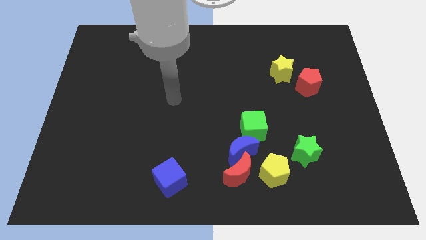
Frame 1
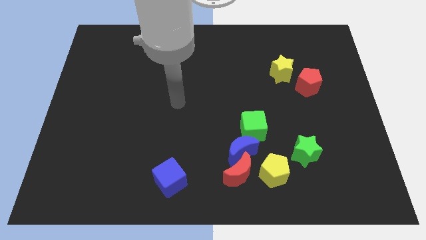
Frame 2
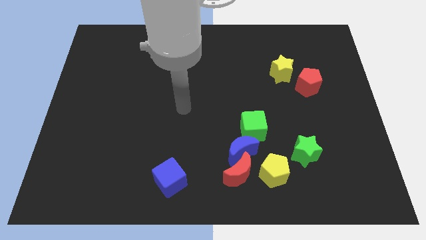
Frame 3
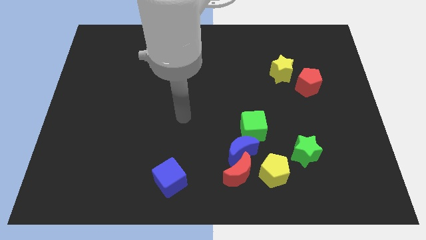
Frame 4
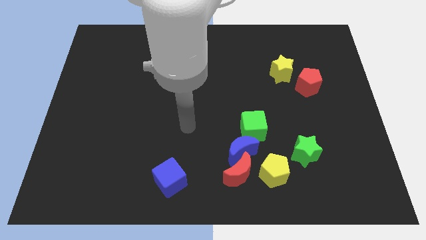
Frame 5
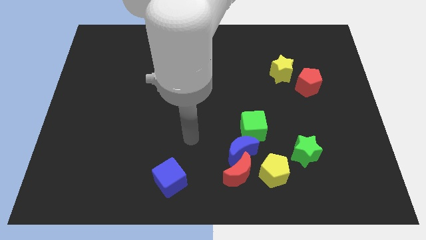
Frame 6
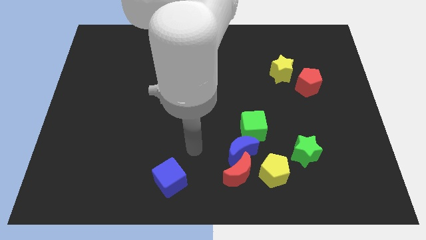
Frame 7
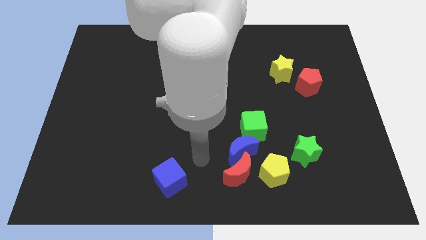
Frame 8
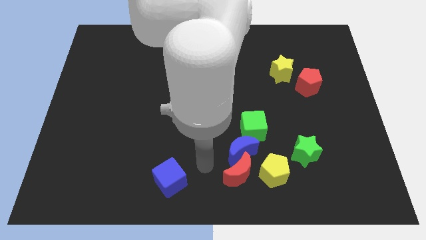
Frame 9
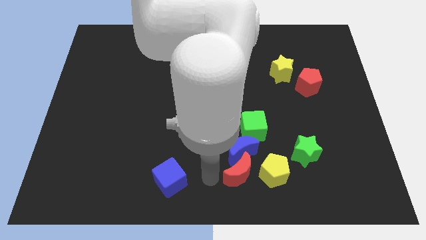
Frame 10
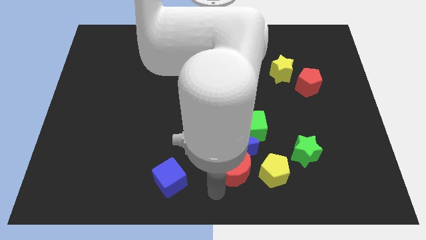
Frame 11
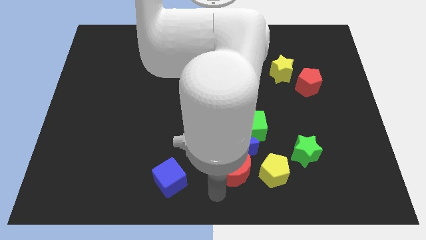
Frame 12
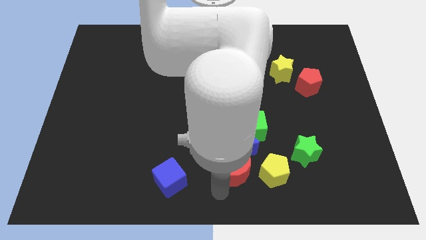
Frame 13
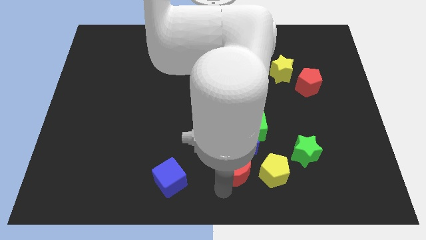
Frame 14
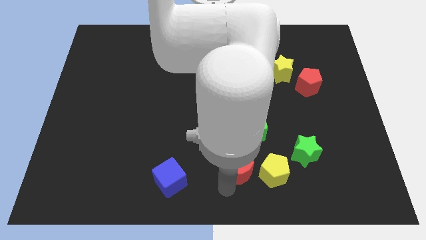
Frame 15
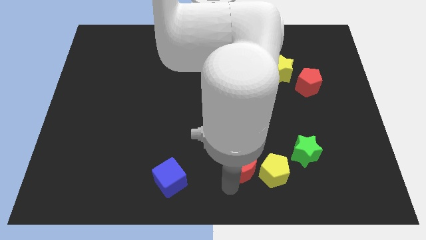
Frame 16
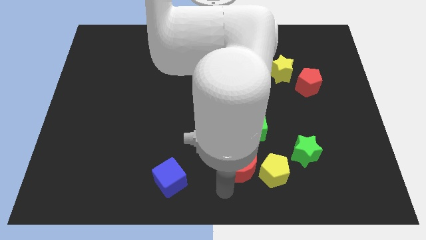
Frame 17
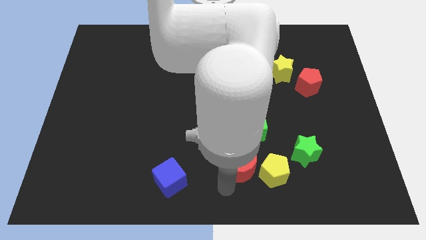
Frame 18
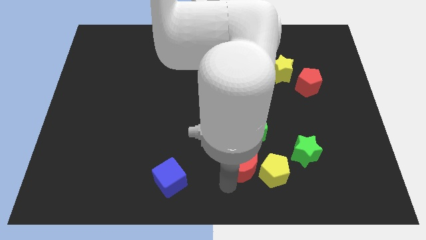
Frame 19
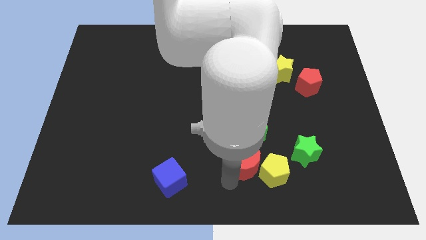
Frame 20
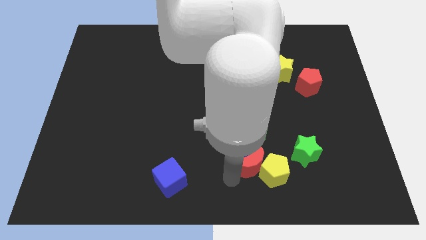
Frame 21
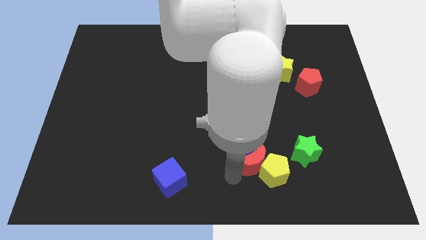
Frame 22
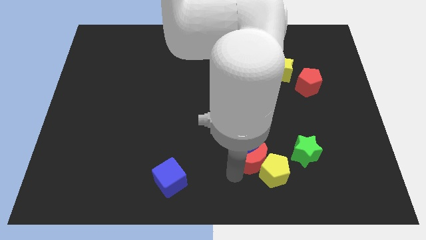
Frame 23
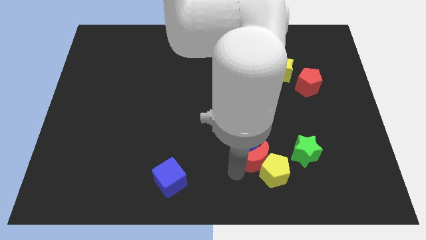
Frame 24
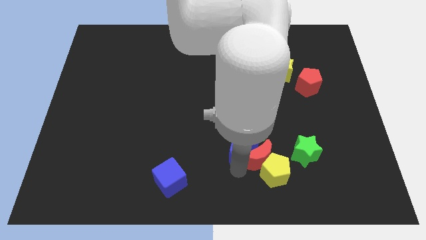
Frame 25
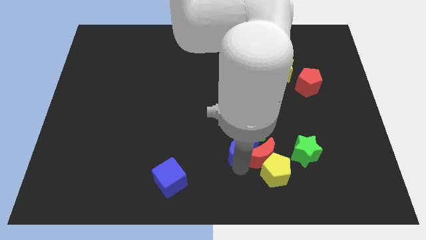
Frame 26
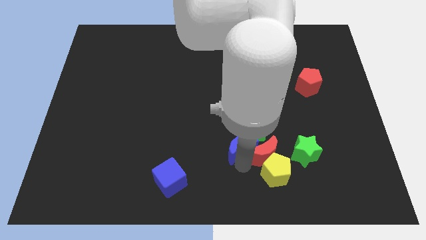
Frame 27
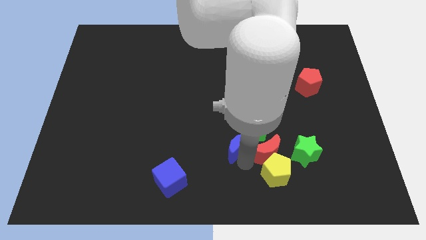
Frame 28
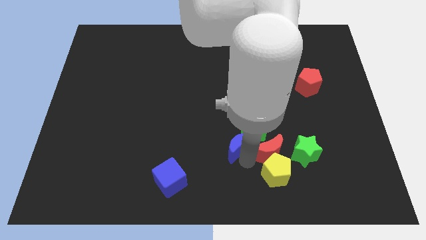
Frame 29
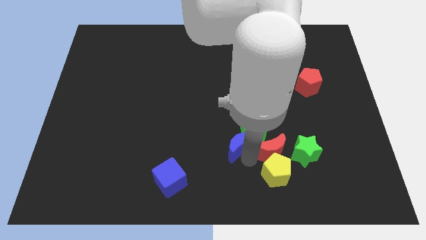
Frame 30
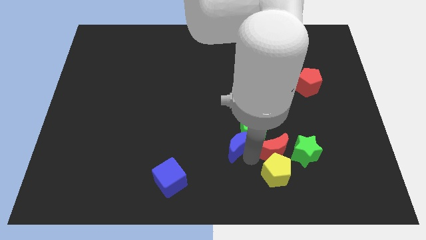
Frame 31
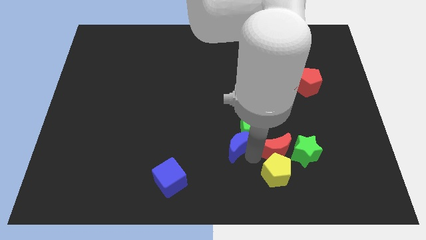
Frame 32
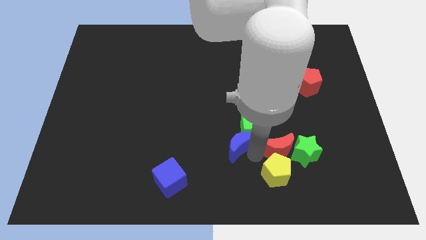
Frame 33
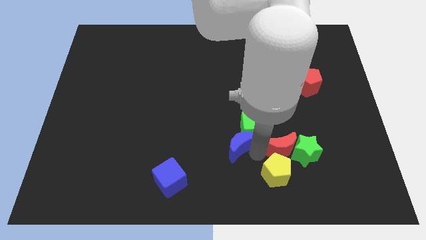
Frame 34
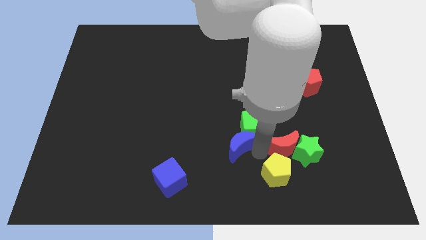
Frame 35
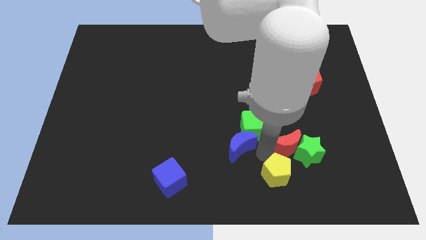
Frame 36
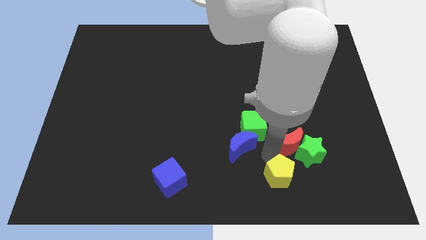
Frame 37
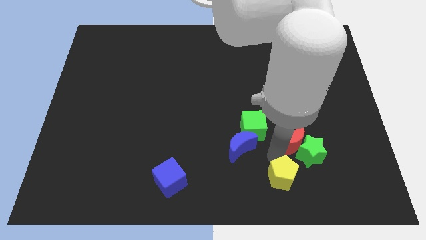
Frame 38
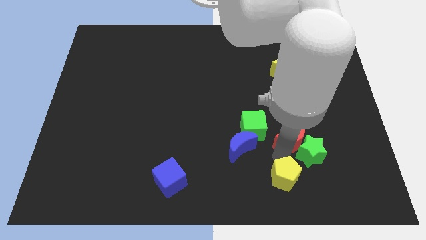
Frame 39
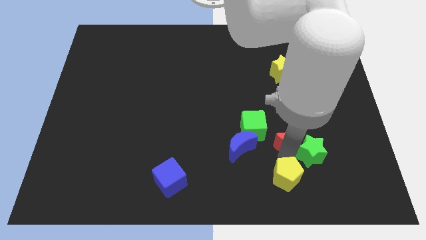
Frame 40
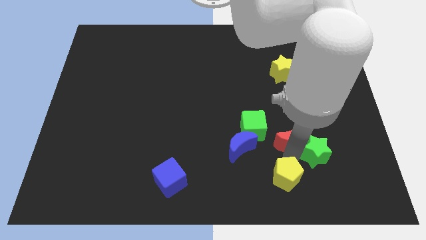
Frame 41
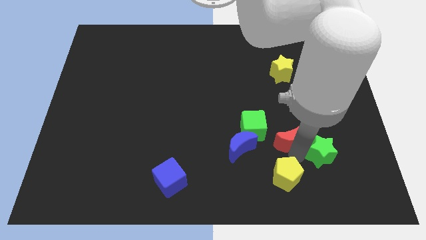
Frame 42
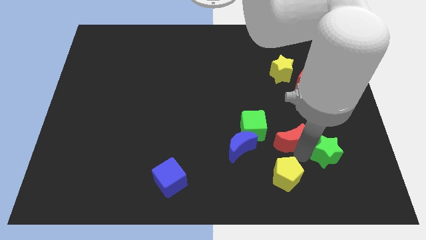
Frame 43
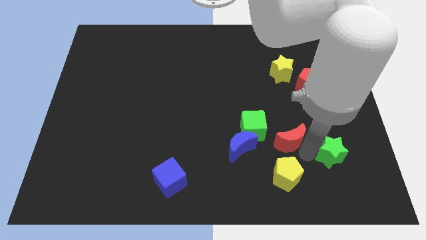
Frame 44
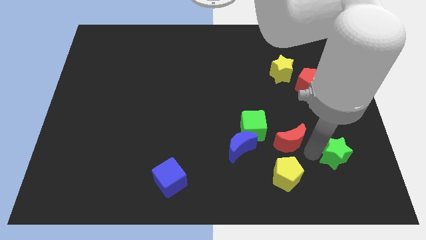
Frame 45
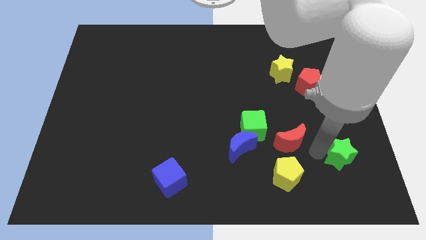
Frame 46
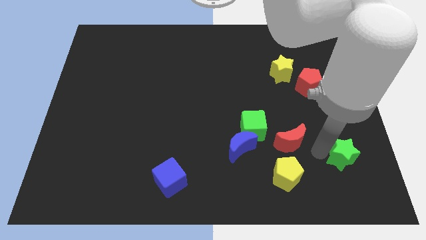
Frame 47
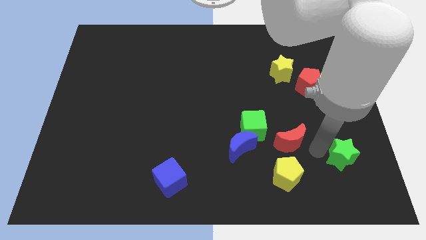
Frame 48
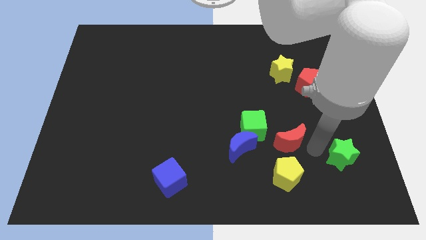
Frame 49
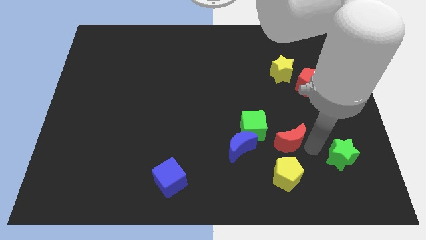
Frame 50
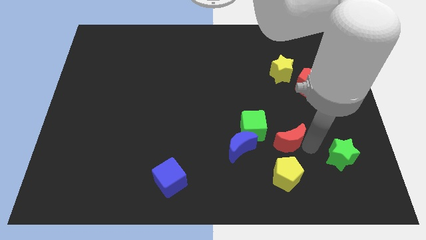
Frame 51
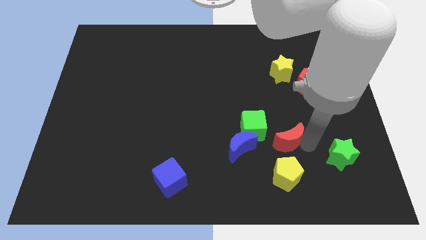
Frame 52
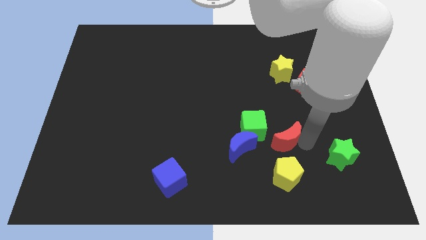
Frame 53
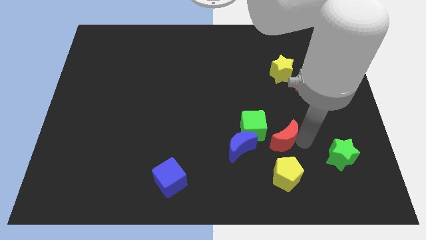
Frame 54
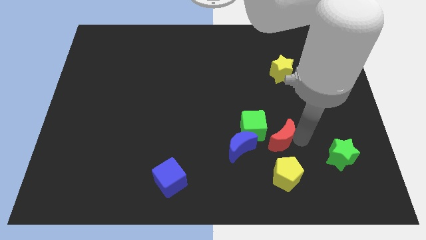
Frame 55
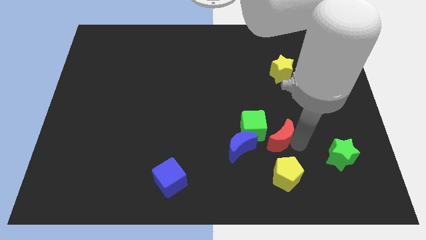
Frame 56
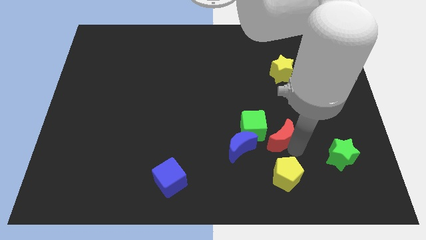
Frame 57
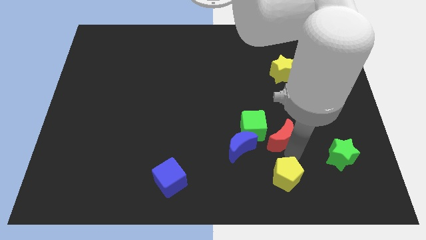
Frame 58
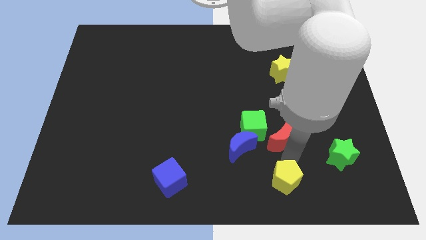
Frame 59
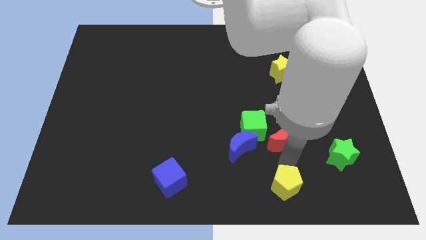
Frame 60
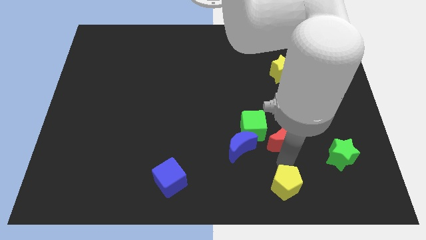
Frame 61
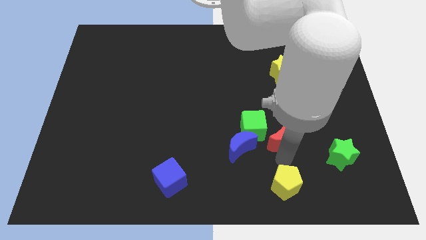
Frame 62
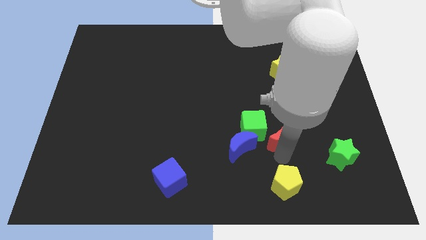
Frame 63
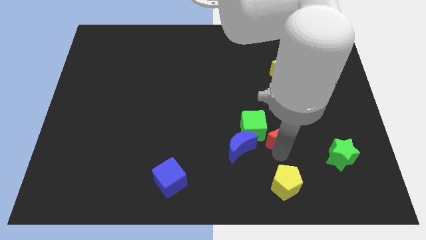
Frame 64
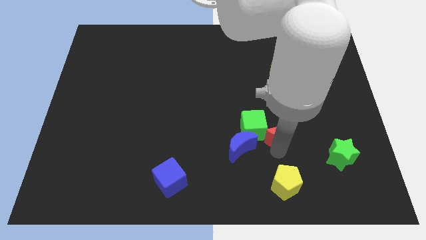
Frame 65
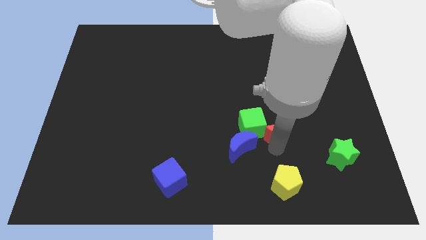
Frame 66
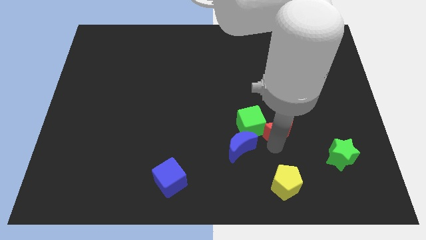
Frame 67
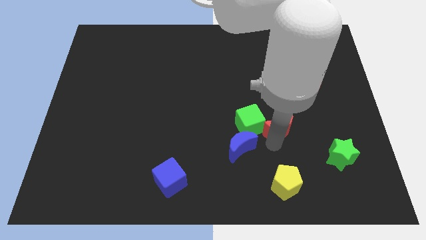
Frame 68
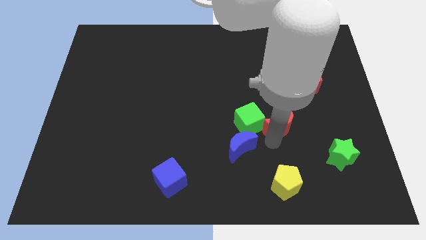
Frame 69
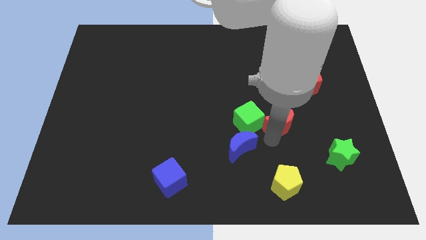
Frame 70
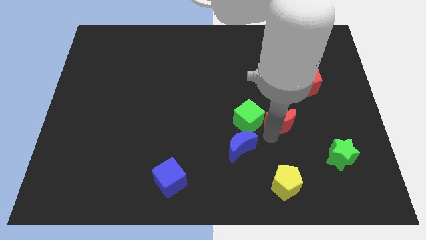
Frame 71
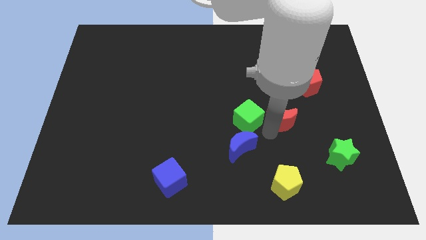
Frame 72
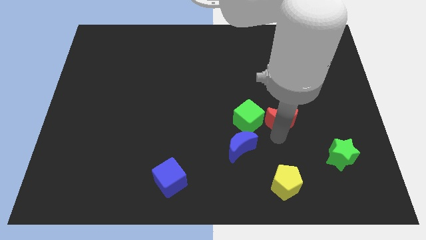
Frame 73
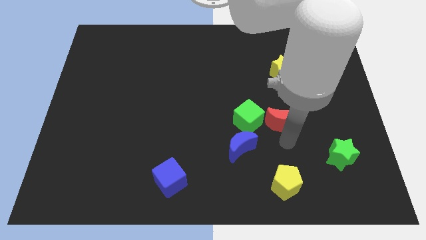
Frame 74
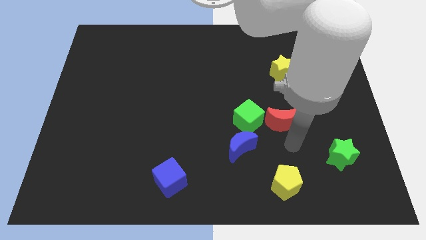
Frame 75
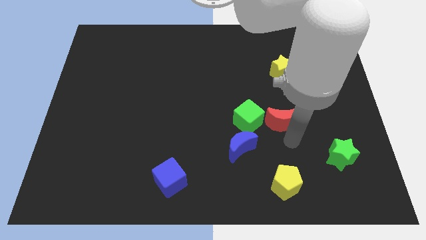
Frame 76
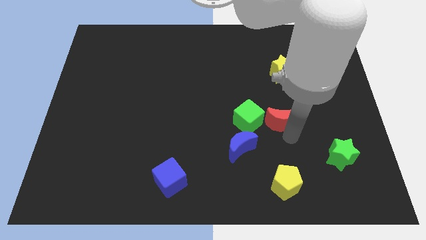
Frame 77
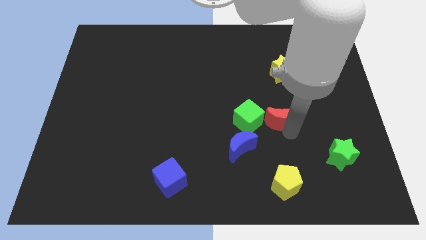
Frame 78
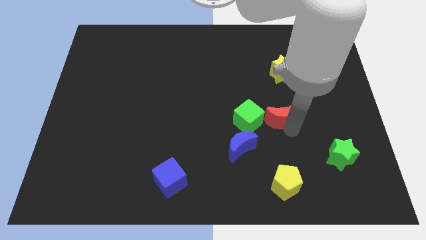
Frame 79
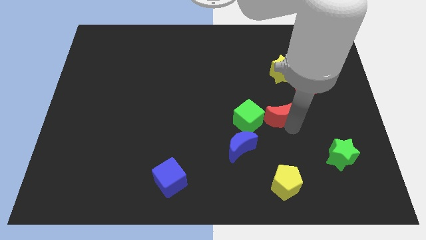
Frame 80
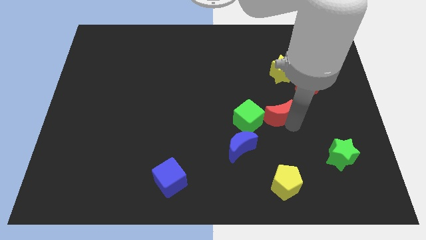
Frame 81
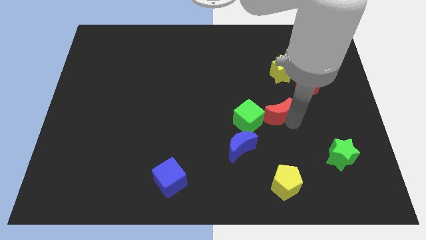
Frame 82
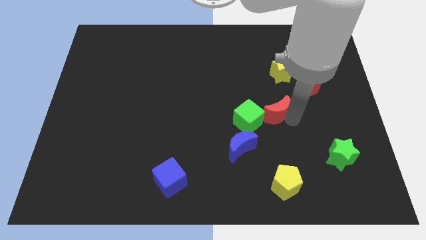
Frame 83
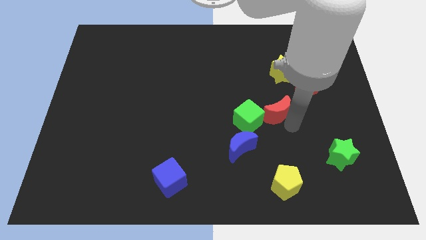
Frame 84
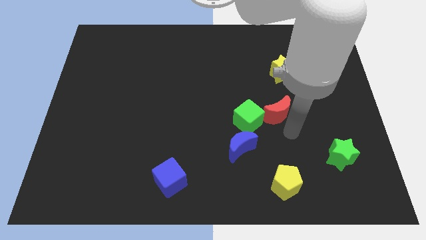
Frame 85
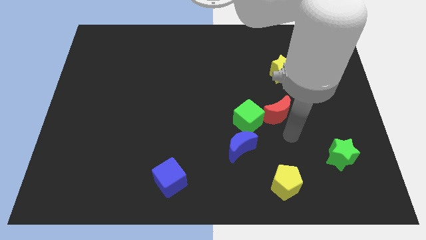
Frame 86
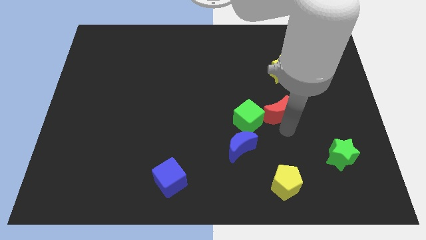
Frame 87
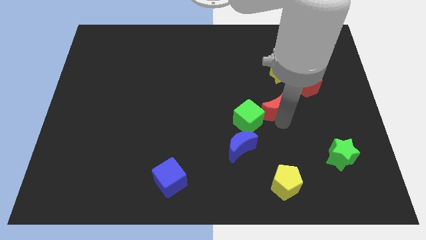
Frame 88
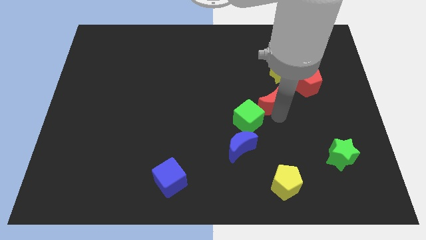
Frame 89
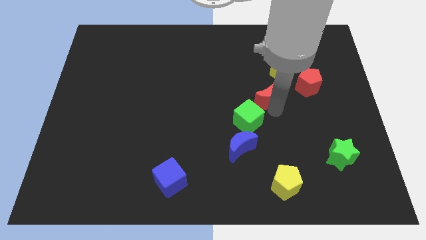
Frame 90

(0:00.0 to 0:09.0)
move the red moon to the bottom left of the yellow star
